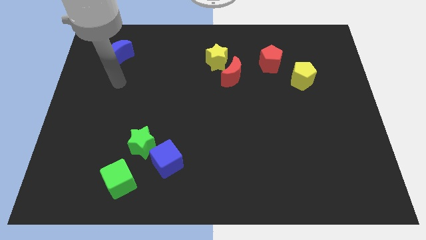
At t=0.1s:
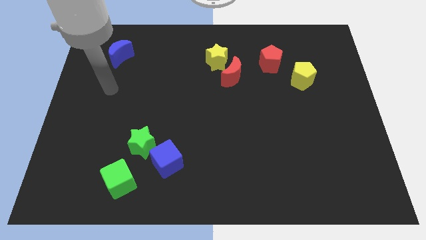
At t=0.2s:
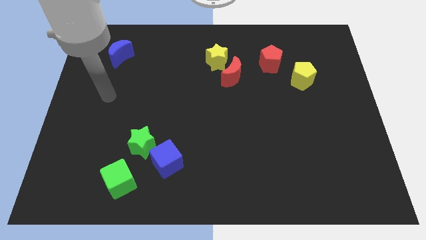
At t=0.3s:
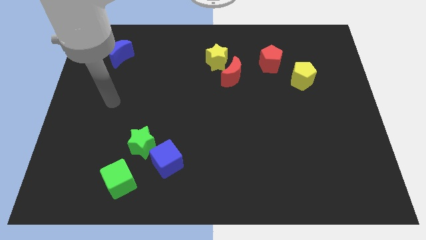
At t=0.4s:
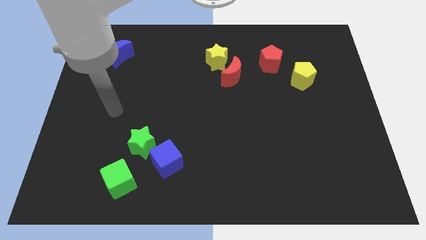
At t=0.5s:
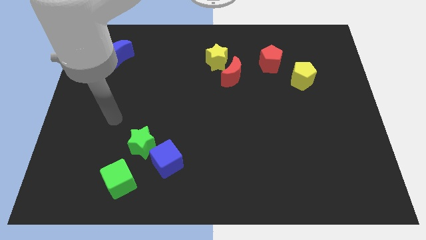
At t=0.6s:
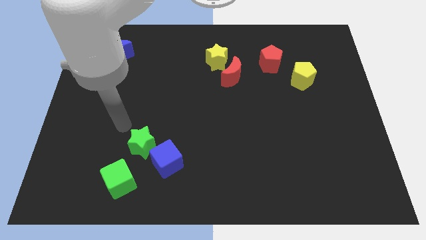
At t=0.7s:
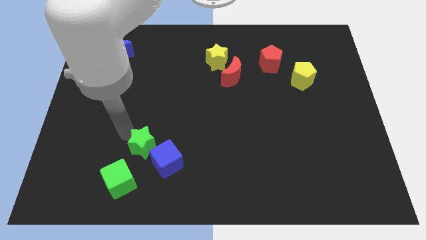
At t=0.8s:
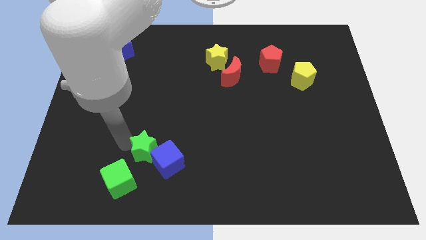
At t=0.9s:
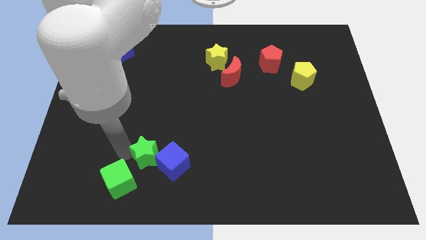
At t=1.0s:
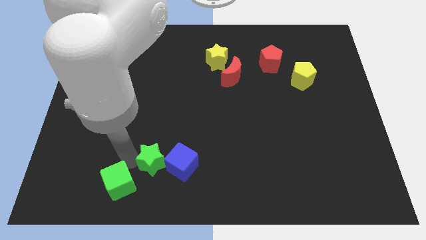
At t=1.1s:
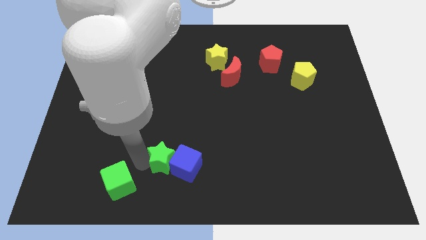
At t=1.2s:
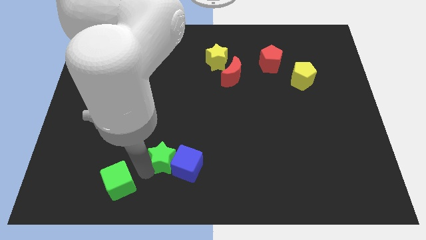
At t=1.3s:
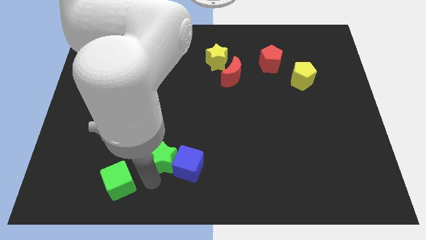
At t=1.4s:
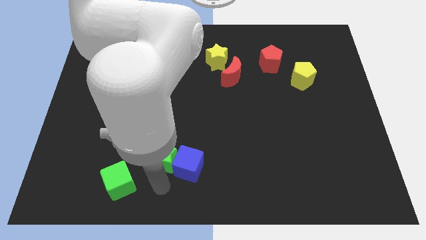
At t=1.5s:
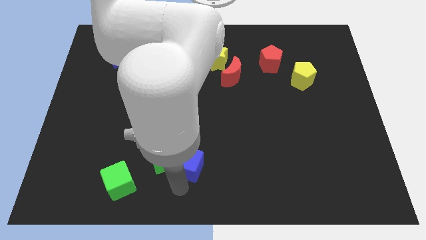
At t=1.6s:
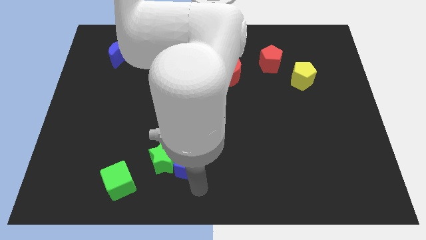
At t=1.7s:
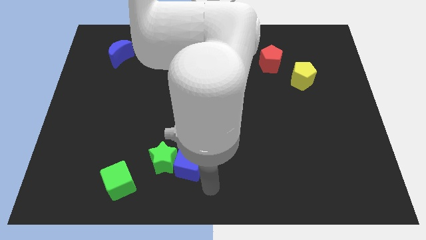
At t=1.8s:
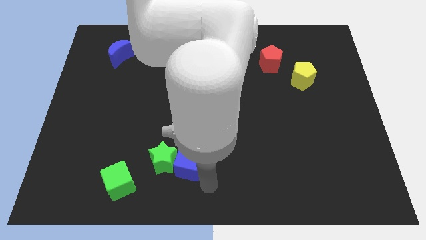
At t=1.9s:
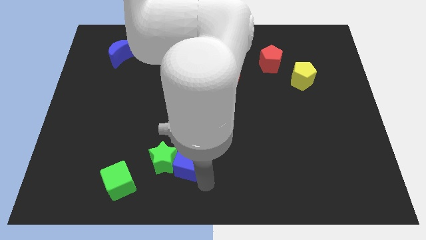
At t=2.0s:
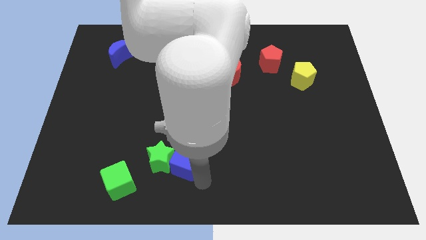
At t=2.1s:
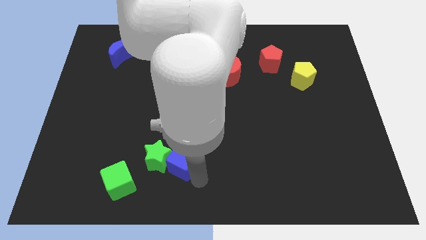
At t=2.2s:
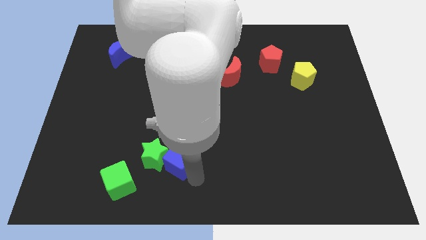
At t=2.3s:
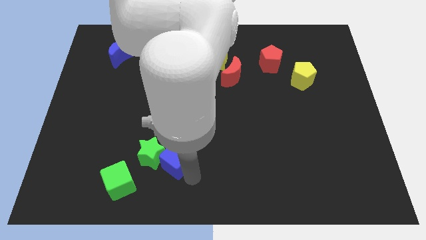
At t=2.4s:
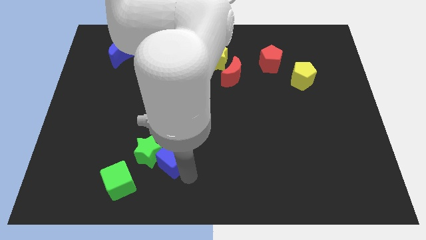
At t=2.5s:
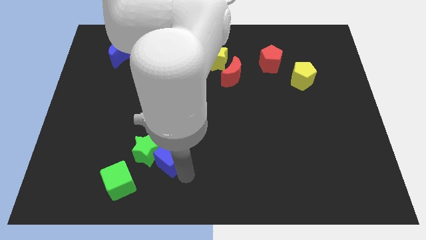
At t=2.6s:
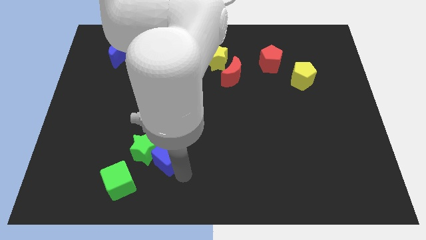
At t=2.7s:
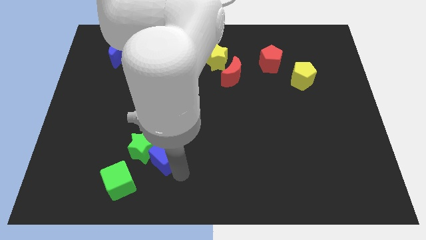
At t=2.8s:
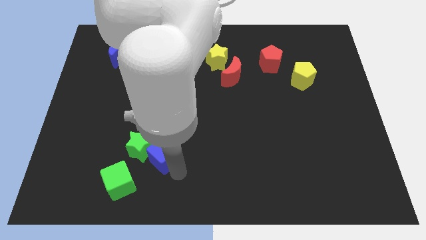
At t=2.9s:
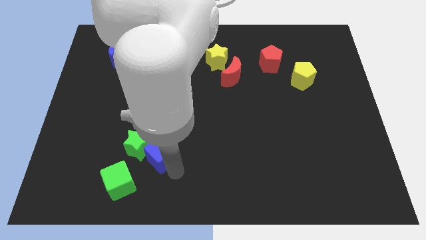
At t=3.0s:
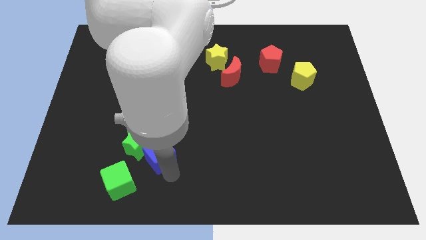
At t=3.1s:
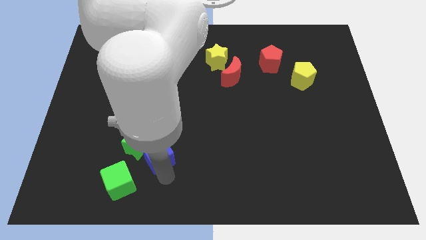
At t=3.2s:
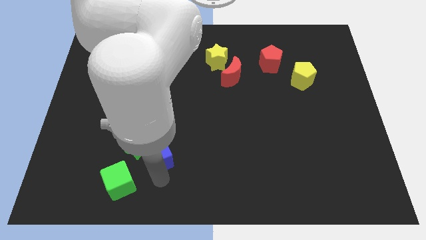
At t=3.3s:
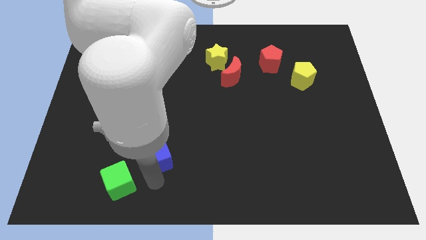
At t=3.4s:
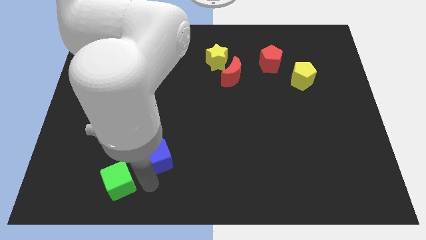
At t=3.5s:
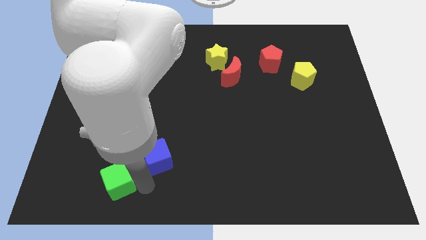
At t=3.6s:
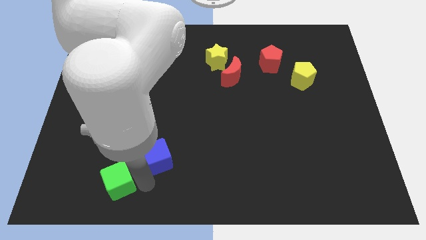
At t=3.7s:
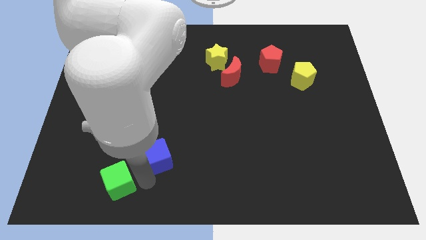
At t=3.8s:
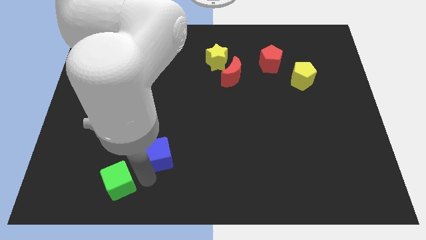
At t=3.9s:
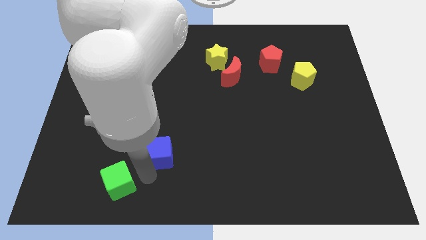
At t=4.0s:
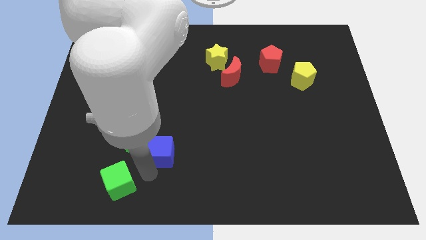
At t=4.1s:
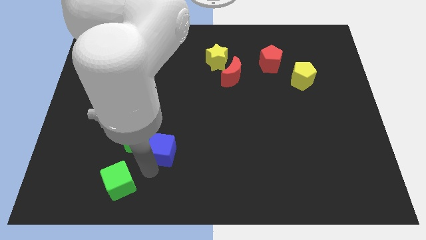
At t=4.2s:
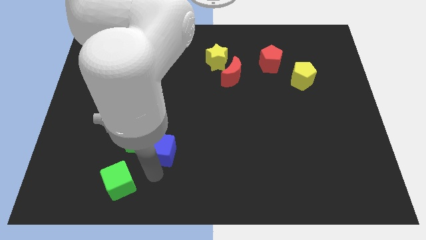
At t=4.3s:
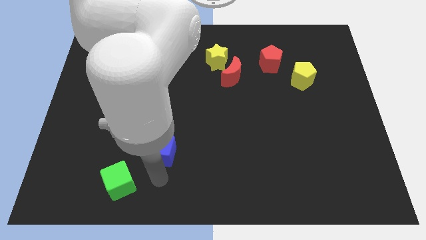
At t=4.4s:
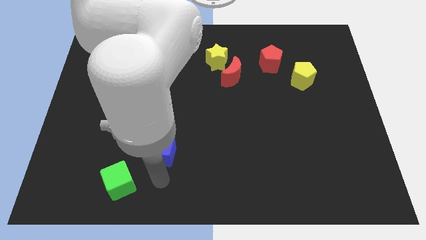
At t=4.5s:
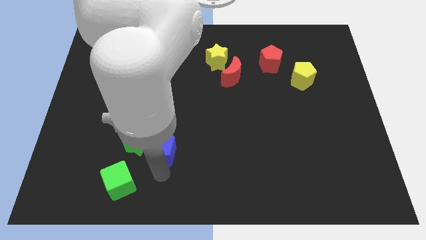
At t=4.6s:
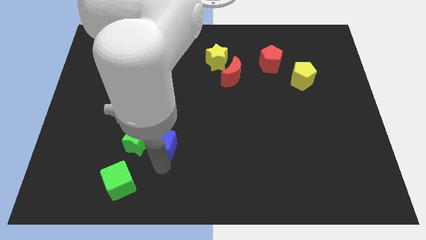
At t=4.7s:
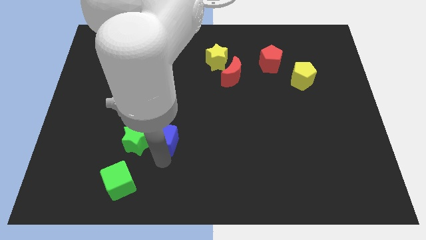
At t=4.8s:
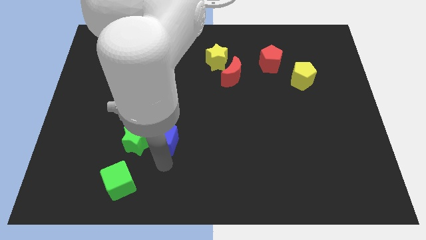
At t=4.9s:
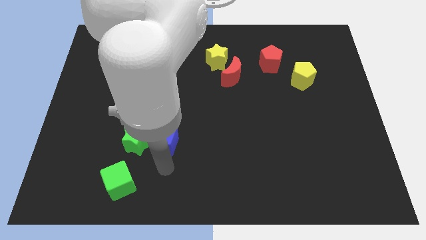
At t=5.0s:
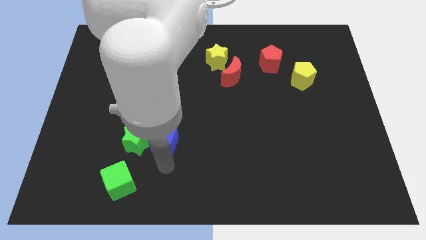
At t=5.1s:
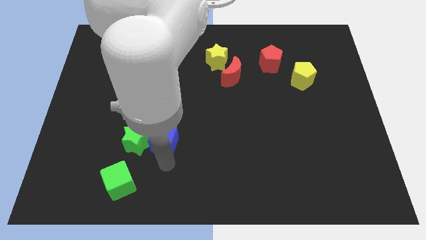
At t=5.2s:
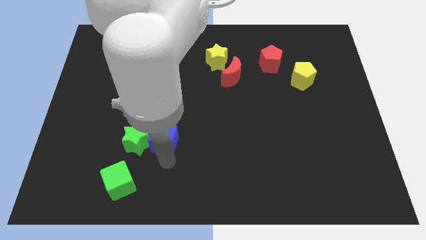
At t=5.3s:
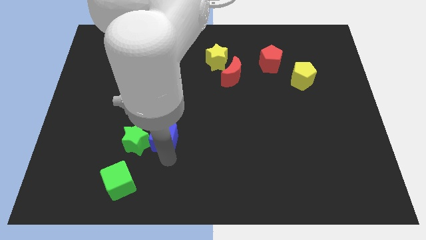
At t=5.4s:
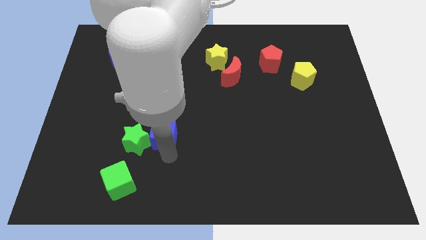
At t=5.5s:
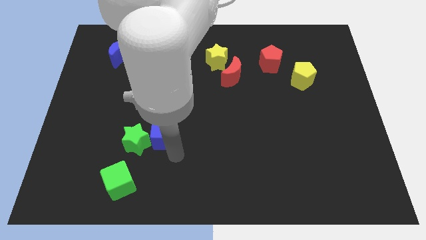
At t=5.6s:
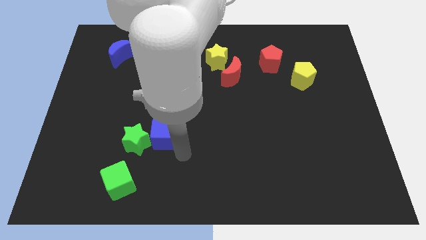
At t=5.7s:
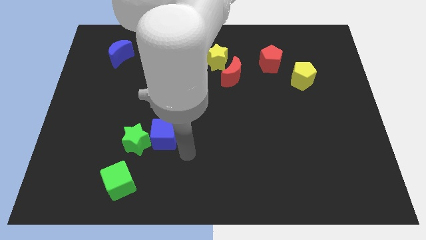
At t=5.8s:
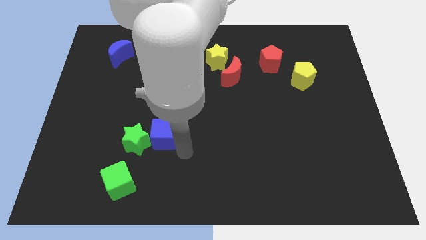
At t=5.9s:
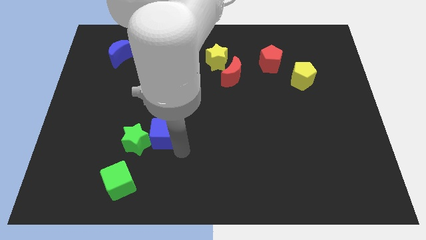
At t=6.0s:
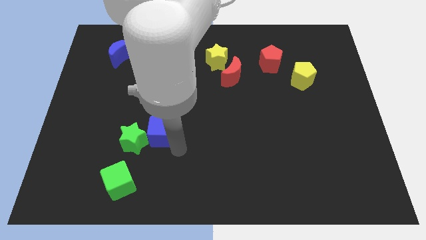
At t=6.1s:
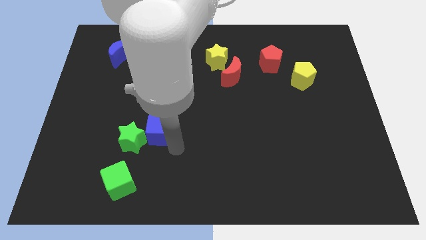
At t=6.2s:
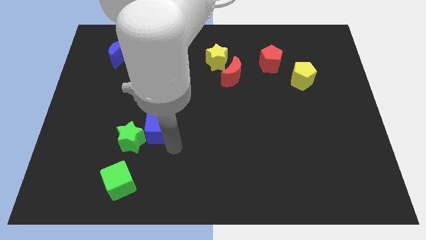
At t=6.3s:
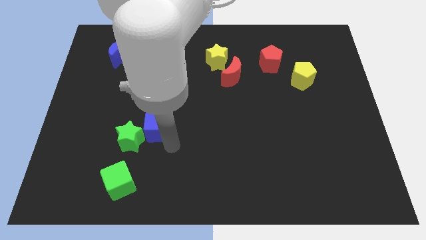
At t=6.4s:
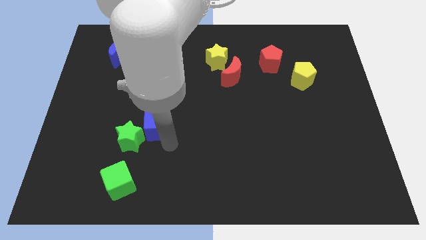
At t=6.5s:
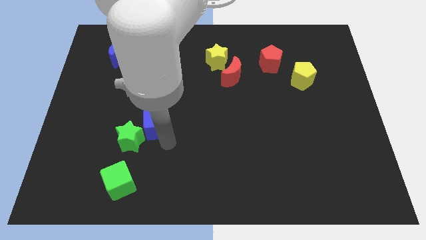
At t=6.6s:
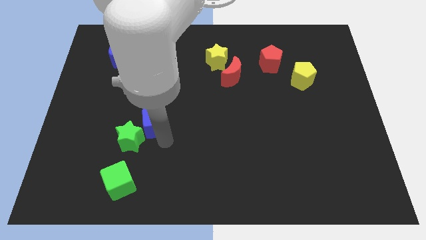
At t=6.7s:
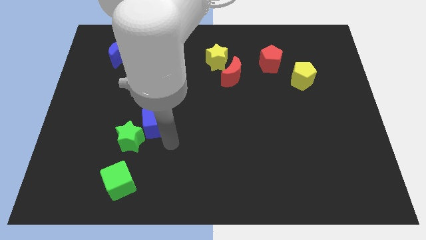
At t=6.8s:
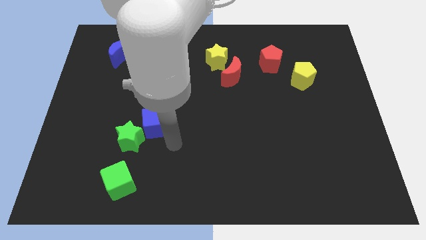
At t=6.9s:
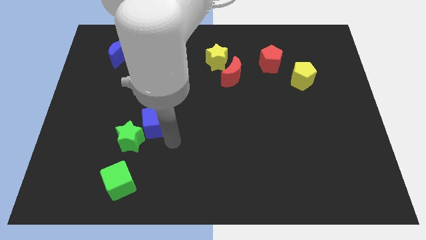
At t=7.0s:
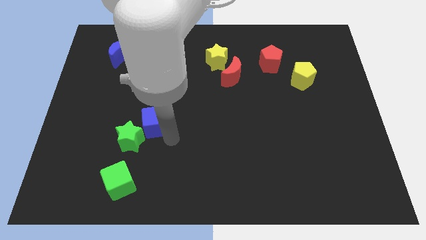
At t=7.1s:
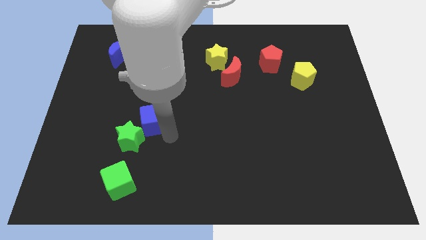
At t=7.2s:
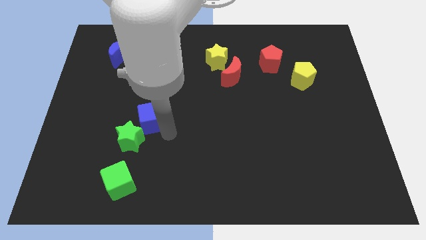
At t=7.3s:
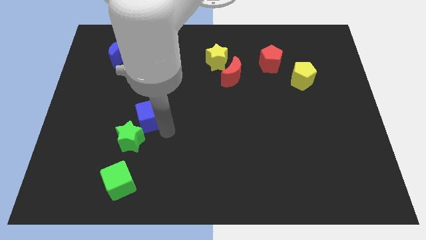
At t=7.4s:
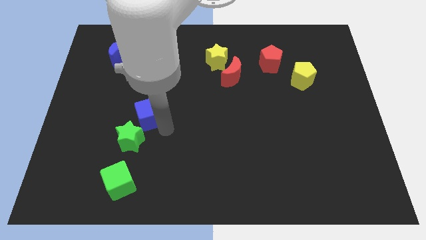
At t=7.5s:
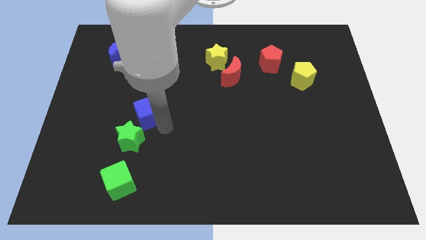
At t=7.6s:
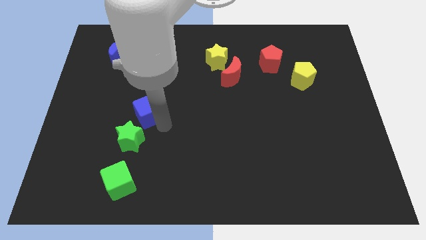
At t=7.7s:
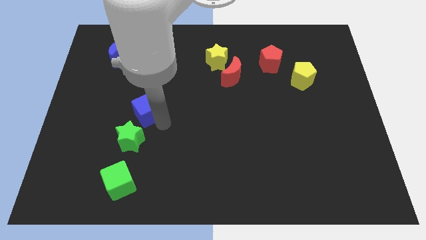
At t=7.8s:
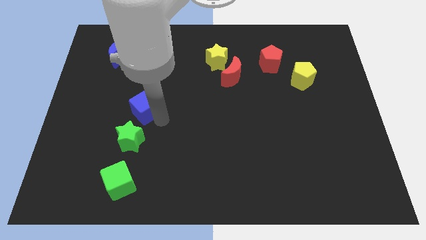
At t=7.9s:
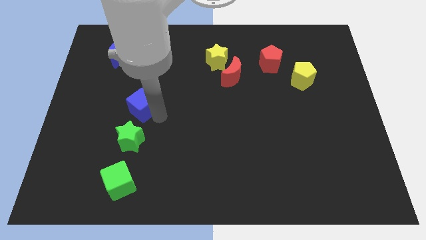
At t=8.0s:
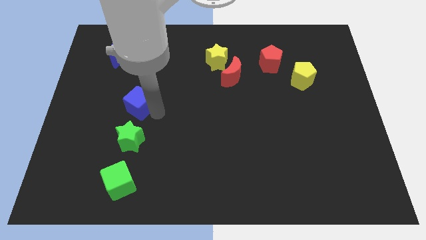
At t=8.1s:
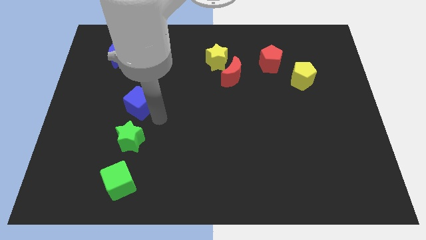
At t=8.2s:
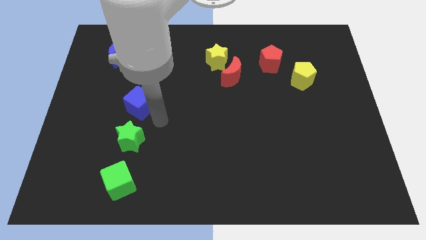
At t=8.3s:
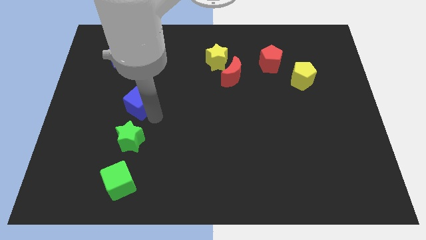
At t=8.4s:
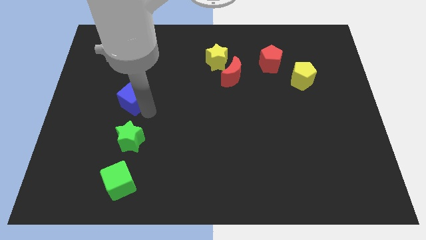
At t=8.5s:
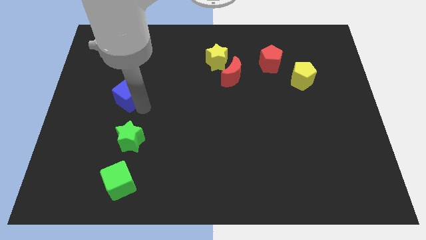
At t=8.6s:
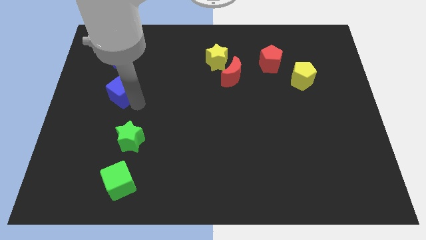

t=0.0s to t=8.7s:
slide the blue cube to the bottom side of the blue moon
